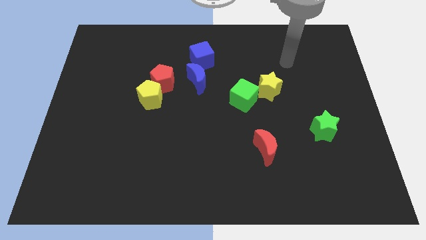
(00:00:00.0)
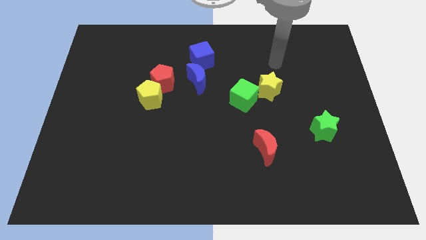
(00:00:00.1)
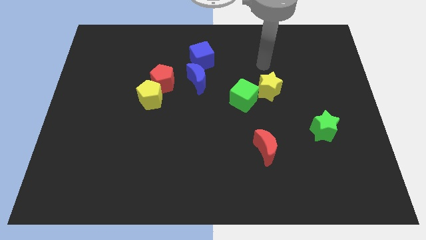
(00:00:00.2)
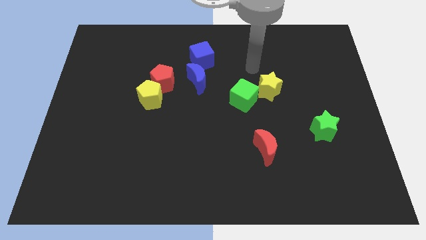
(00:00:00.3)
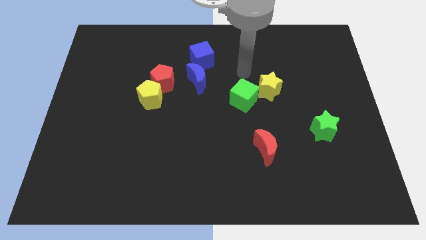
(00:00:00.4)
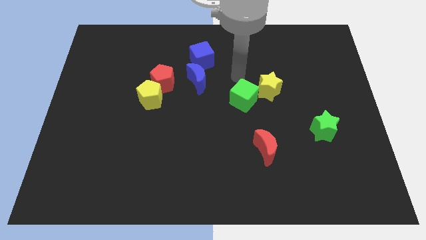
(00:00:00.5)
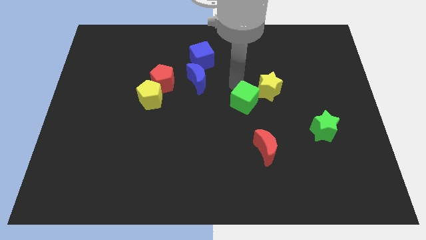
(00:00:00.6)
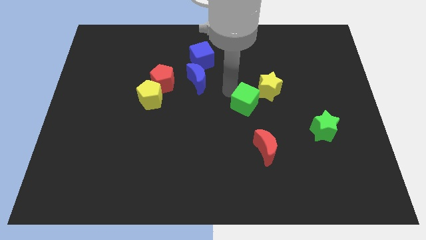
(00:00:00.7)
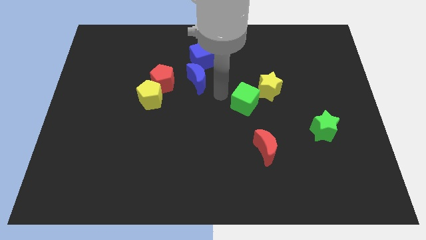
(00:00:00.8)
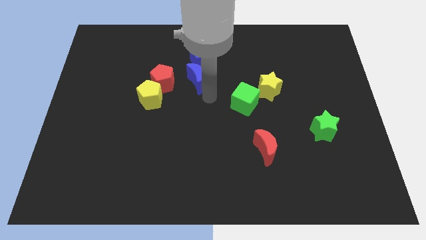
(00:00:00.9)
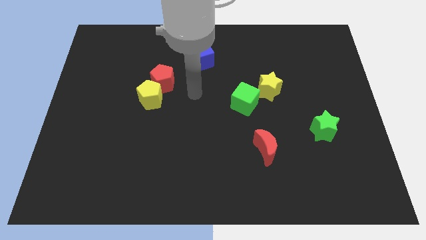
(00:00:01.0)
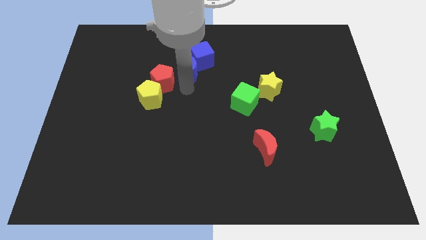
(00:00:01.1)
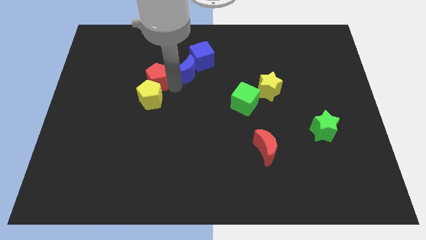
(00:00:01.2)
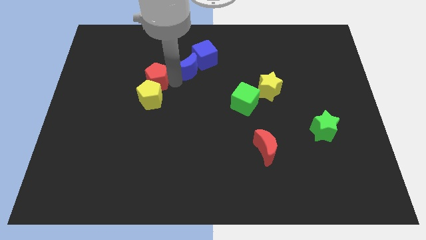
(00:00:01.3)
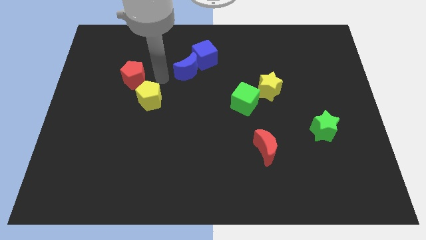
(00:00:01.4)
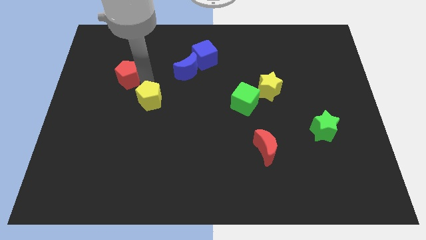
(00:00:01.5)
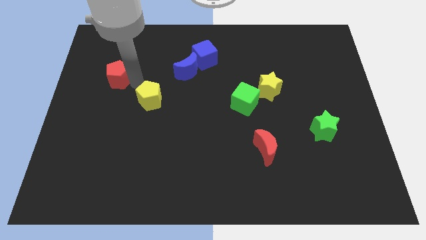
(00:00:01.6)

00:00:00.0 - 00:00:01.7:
move the yellow pentagon away from the red pentagon

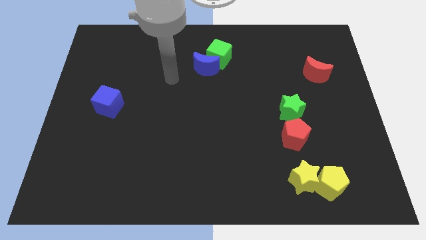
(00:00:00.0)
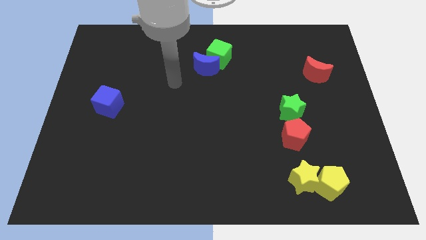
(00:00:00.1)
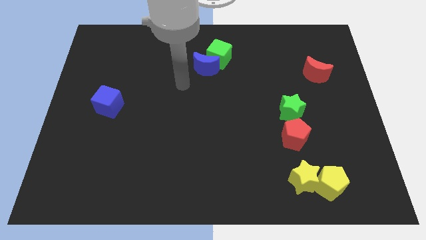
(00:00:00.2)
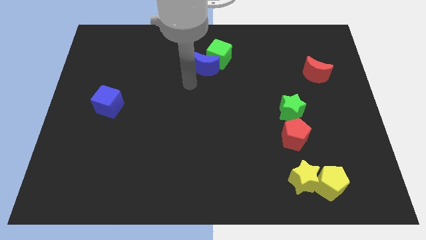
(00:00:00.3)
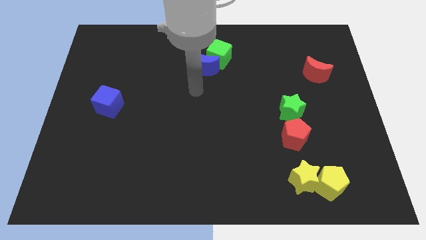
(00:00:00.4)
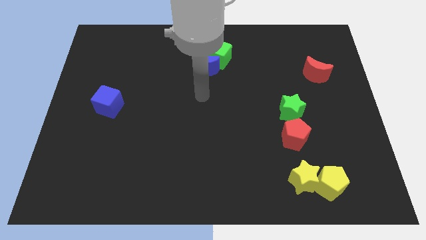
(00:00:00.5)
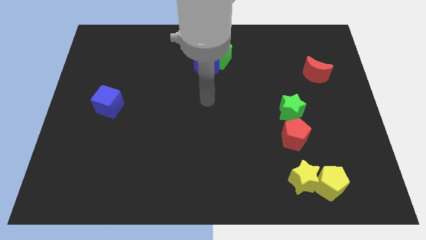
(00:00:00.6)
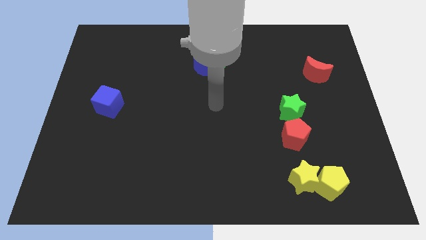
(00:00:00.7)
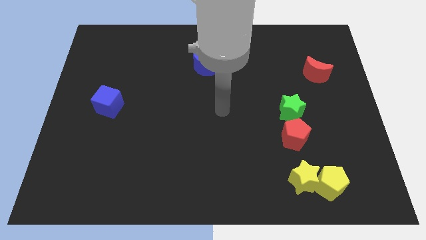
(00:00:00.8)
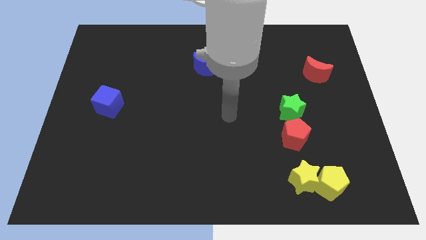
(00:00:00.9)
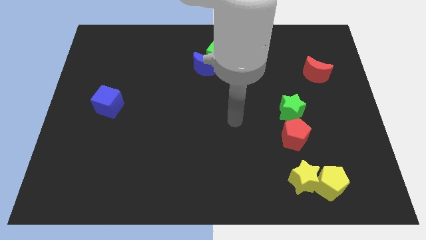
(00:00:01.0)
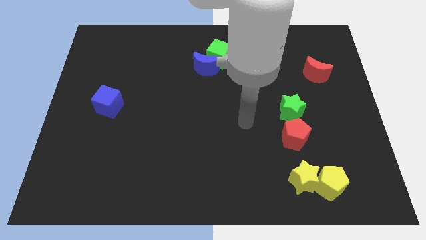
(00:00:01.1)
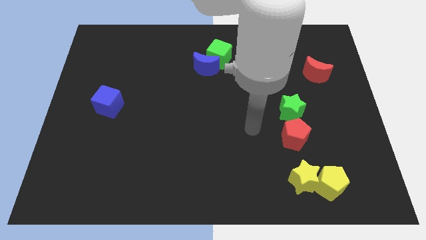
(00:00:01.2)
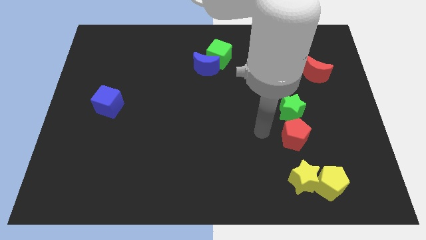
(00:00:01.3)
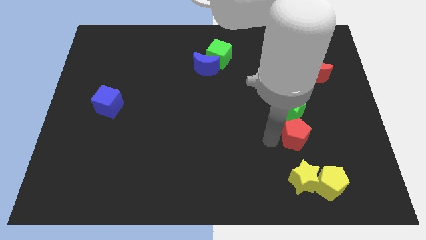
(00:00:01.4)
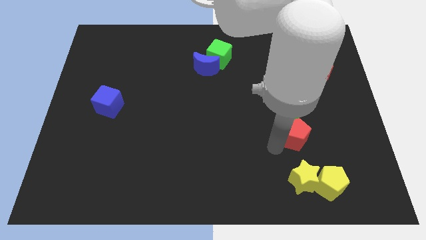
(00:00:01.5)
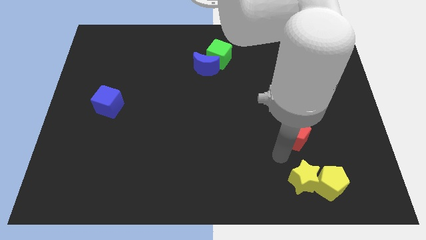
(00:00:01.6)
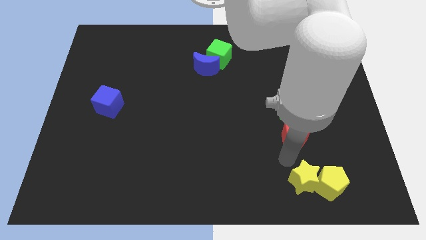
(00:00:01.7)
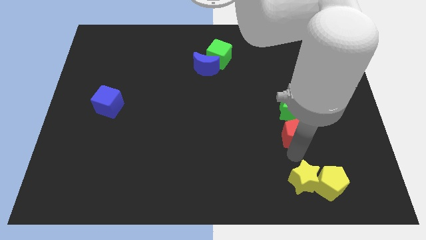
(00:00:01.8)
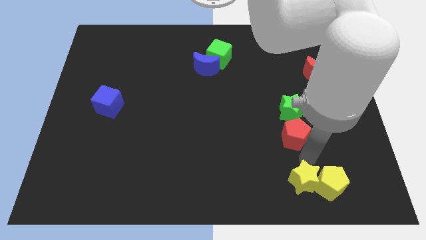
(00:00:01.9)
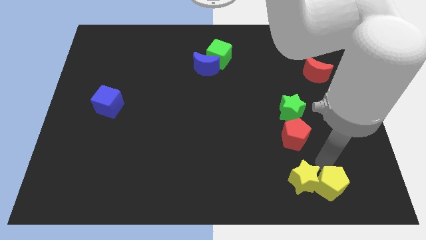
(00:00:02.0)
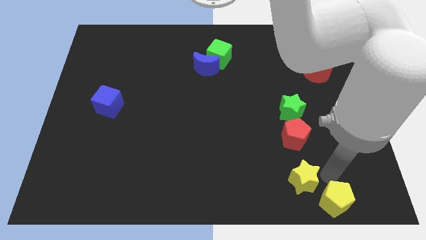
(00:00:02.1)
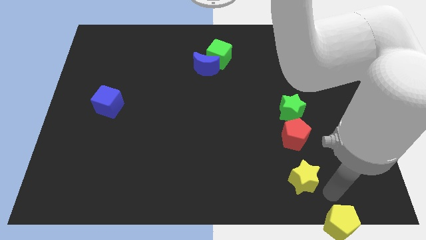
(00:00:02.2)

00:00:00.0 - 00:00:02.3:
separate the yellow star from the yellow pentagon

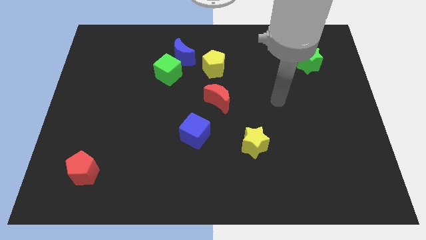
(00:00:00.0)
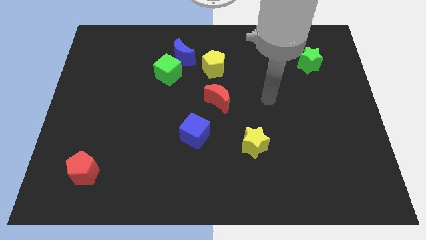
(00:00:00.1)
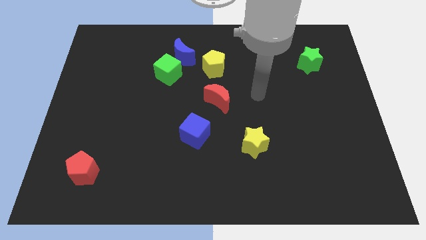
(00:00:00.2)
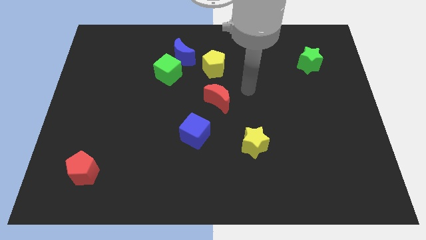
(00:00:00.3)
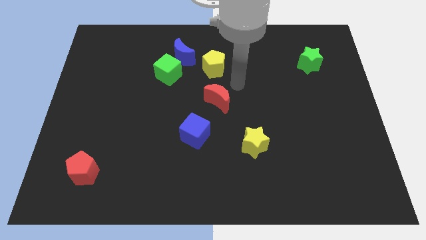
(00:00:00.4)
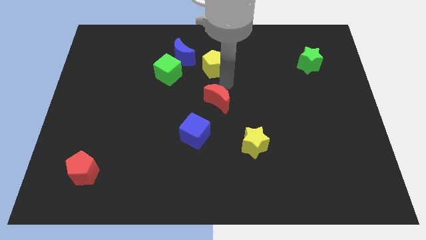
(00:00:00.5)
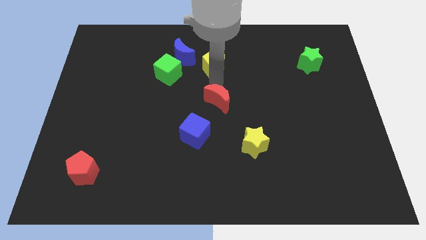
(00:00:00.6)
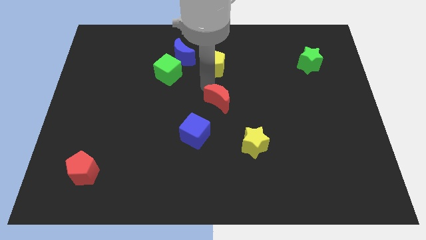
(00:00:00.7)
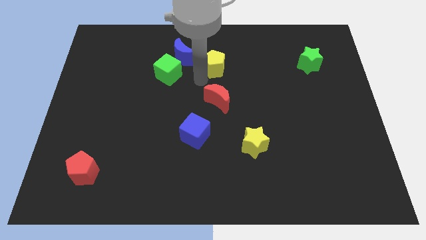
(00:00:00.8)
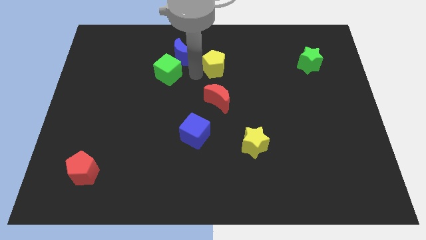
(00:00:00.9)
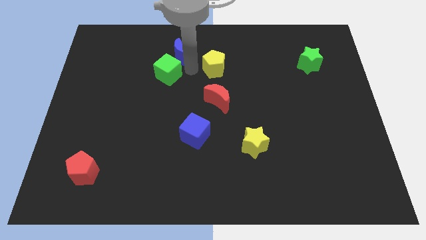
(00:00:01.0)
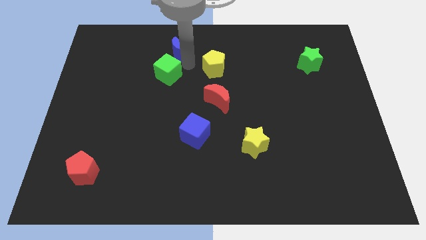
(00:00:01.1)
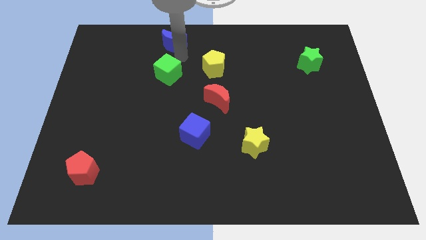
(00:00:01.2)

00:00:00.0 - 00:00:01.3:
pull the green cube apart from the blue moon

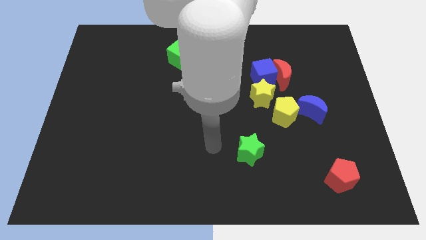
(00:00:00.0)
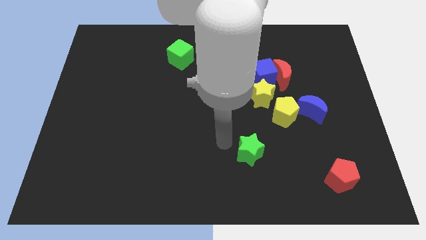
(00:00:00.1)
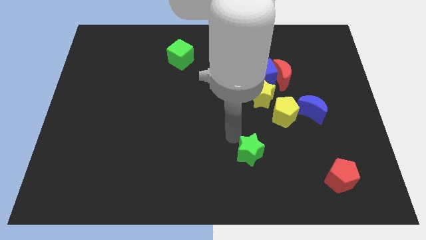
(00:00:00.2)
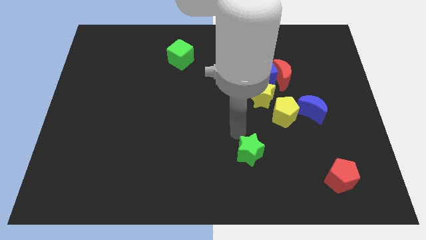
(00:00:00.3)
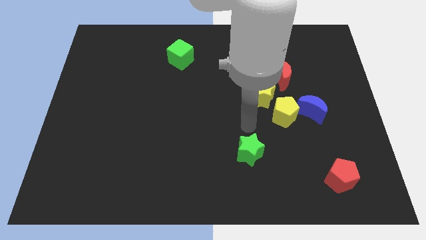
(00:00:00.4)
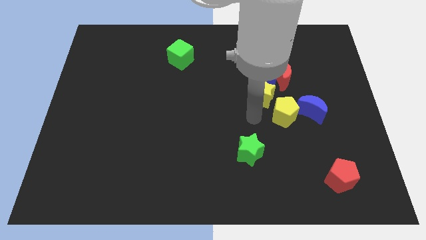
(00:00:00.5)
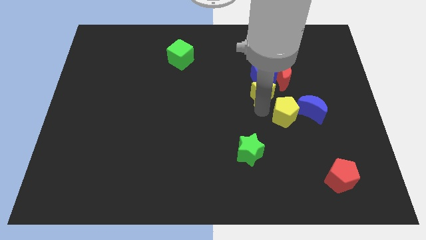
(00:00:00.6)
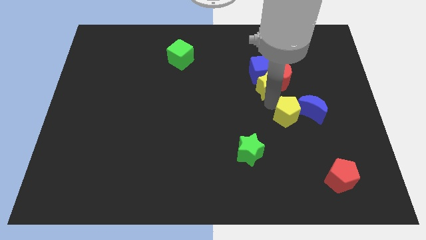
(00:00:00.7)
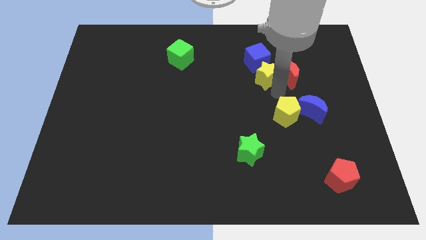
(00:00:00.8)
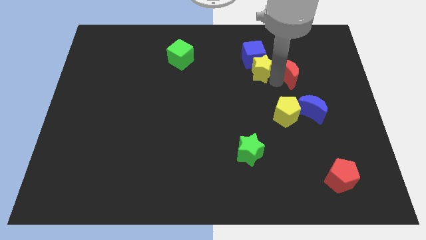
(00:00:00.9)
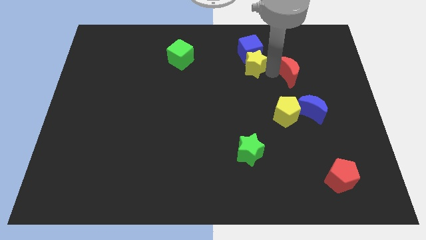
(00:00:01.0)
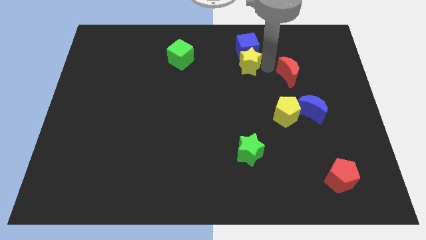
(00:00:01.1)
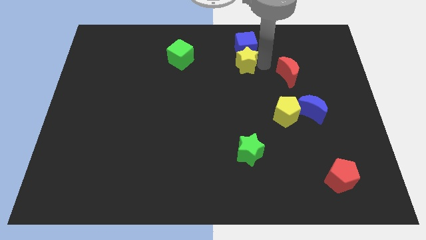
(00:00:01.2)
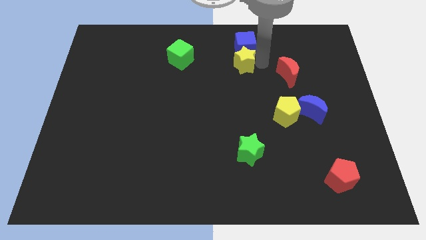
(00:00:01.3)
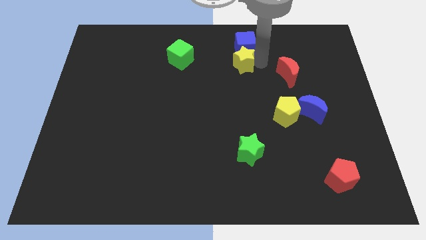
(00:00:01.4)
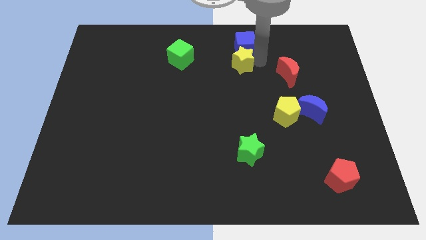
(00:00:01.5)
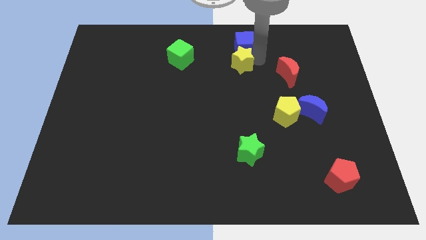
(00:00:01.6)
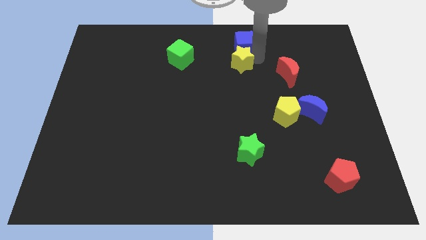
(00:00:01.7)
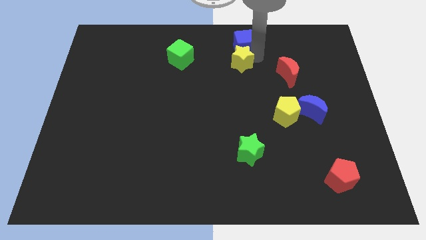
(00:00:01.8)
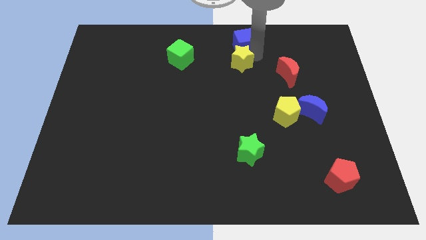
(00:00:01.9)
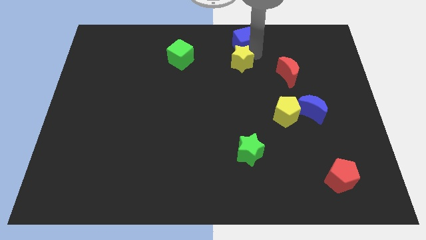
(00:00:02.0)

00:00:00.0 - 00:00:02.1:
pull the blue cube apart from the red moon and yellow star

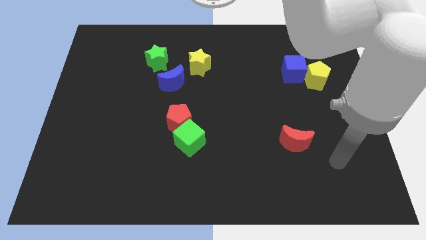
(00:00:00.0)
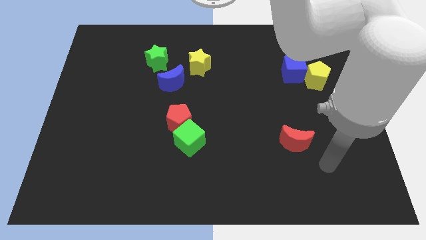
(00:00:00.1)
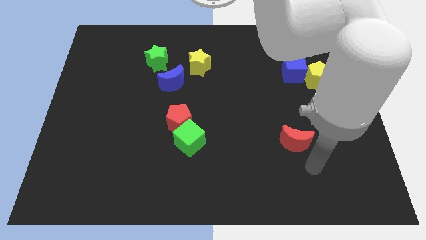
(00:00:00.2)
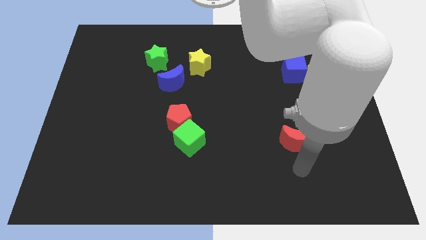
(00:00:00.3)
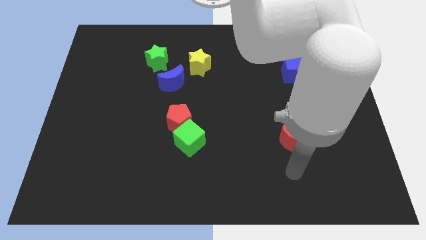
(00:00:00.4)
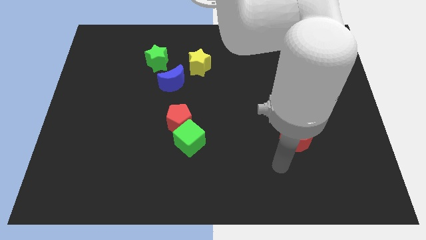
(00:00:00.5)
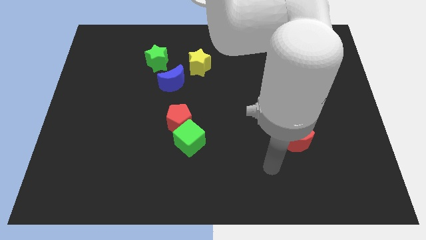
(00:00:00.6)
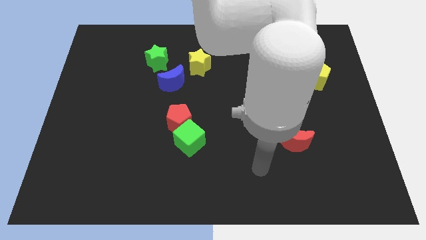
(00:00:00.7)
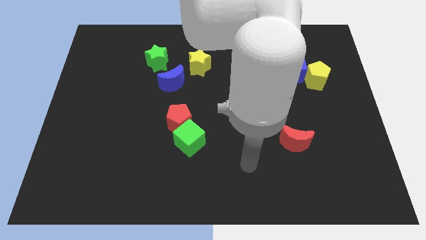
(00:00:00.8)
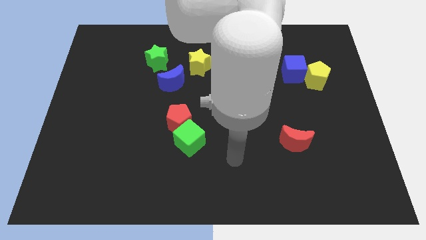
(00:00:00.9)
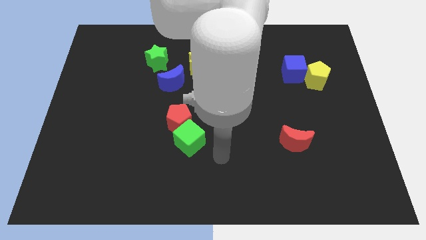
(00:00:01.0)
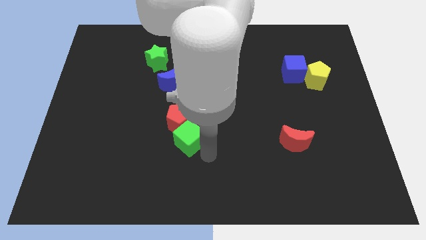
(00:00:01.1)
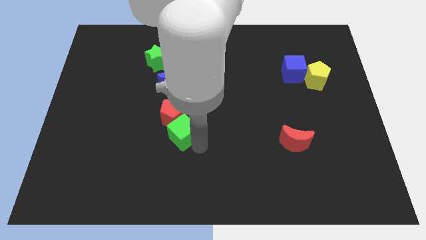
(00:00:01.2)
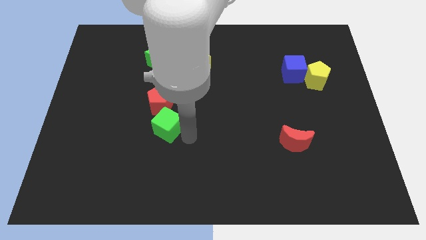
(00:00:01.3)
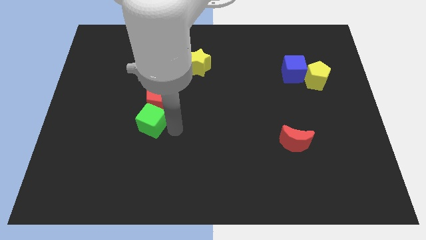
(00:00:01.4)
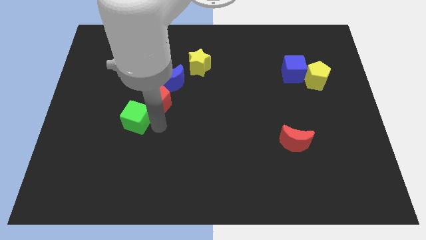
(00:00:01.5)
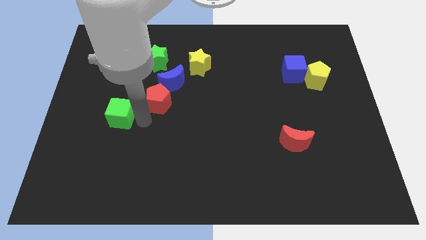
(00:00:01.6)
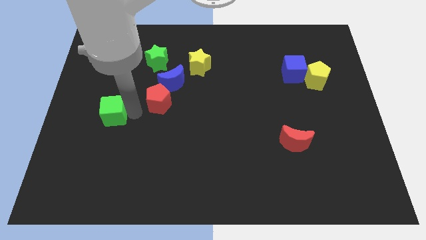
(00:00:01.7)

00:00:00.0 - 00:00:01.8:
pull the red pentagon apart from the green cube
